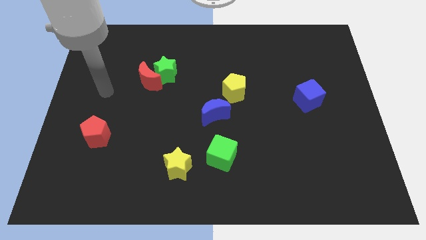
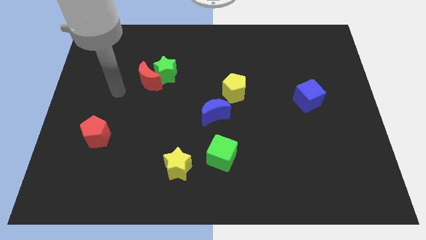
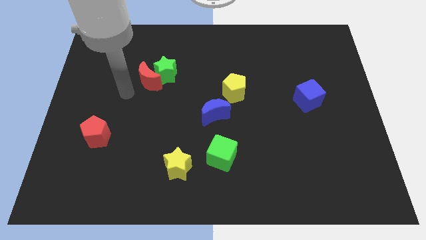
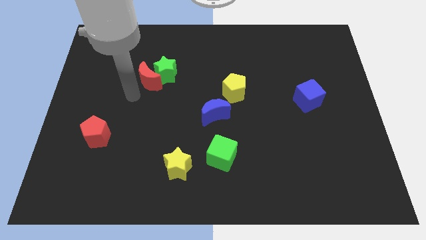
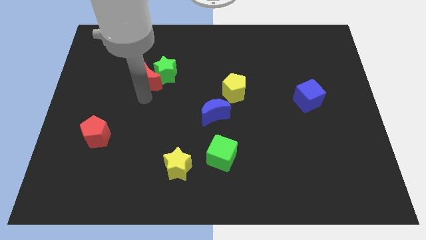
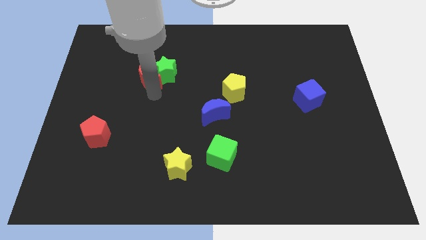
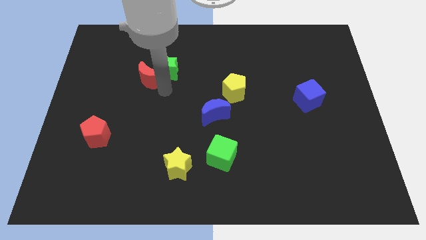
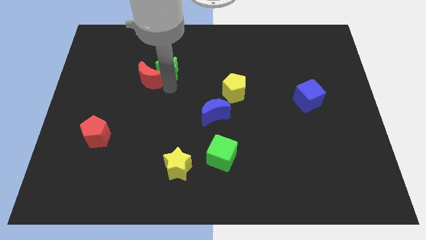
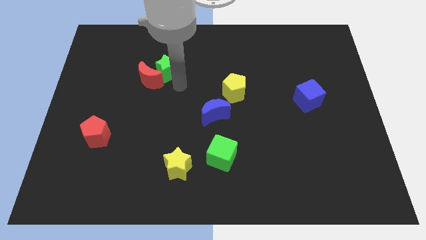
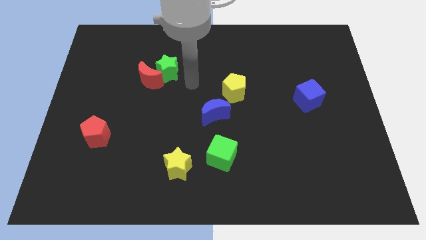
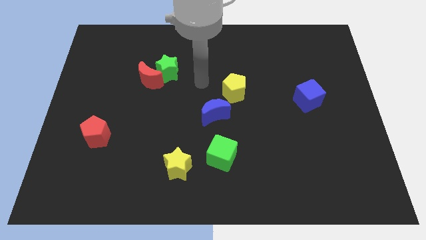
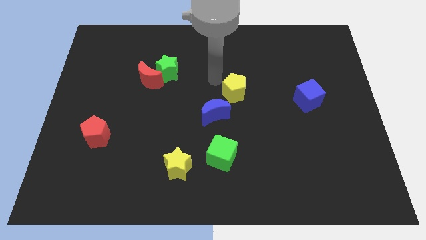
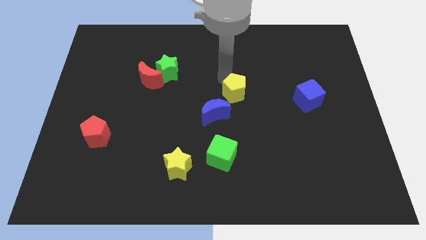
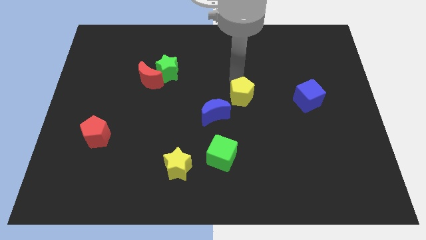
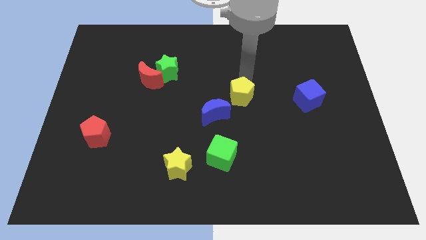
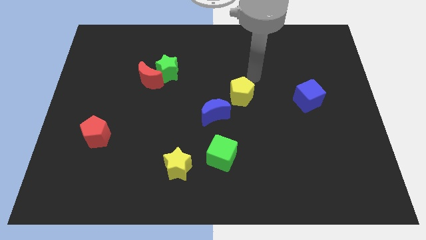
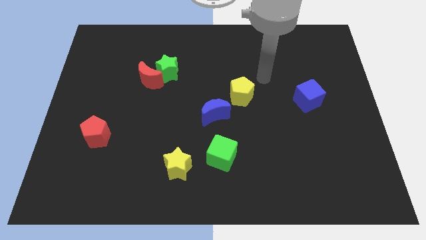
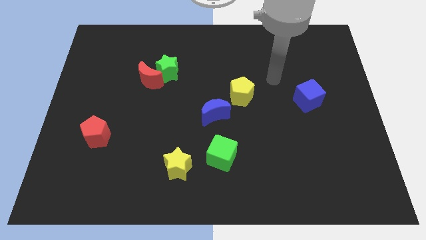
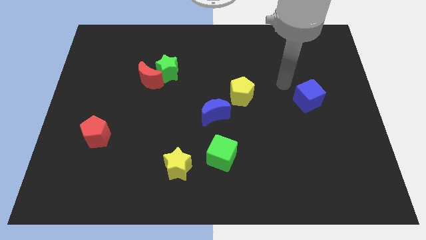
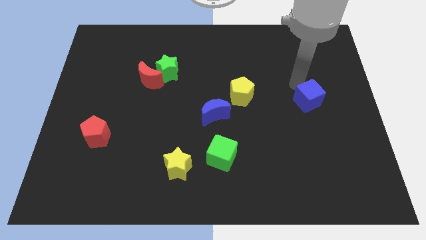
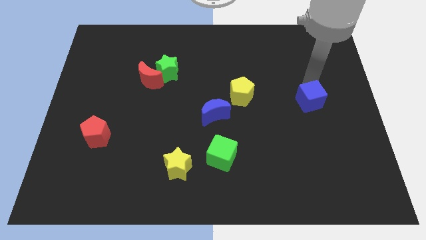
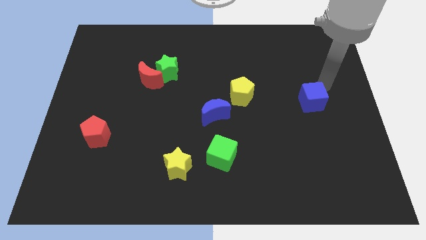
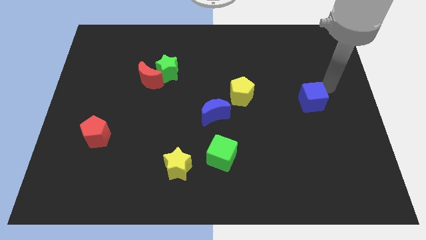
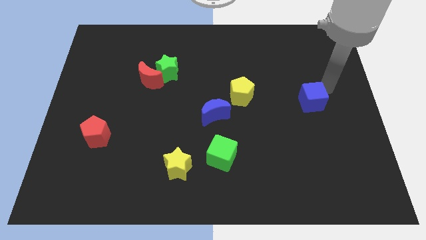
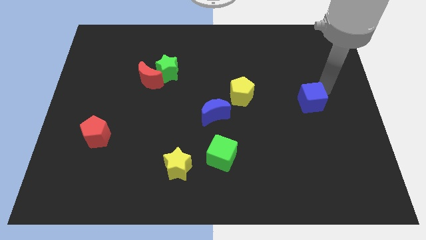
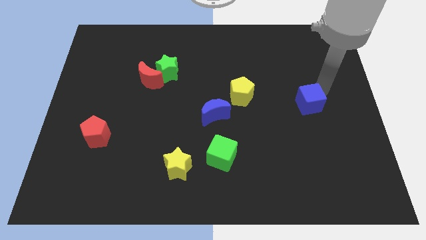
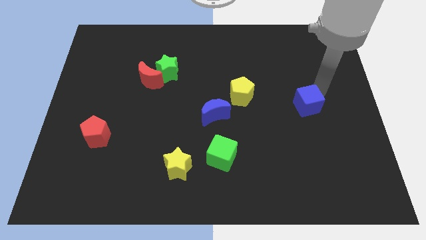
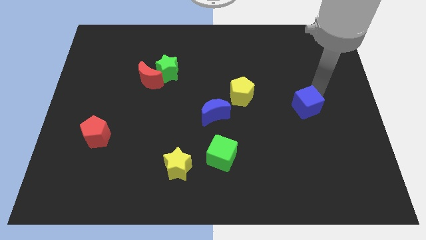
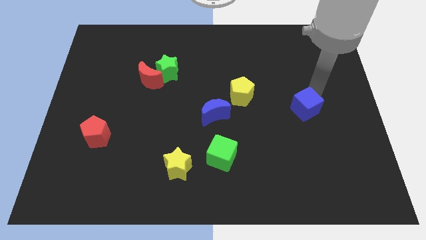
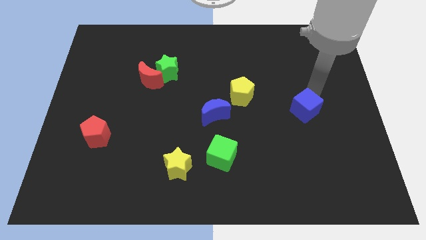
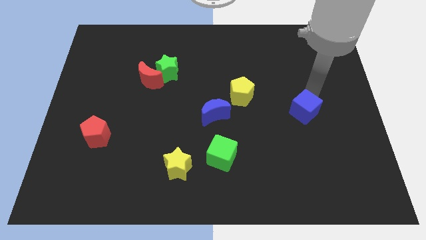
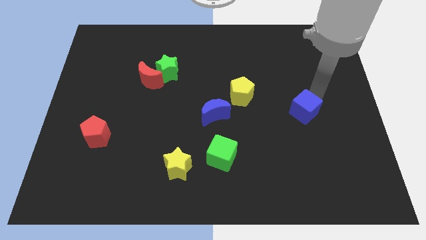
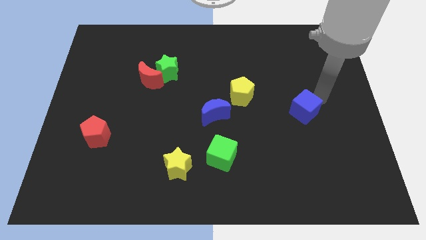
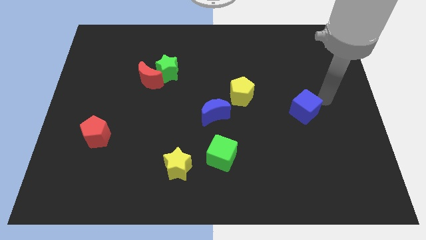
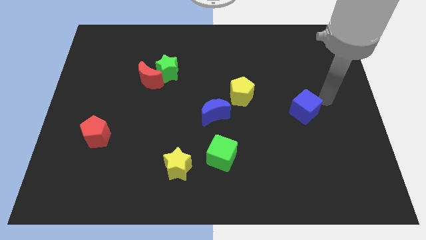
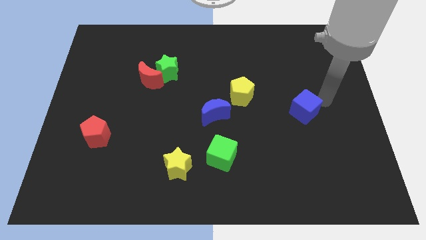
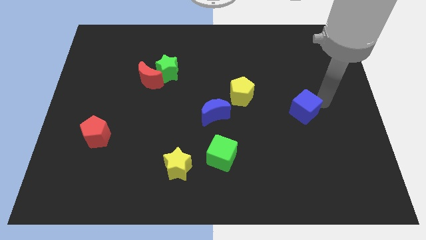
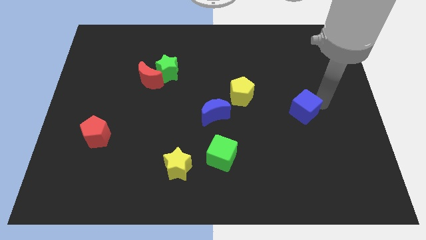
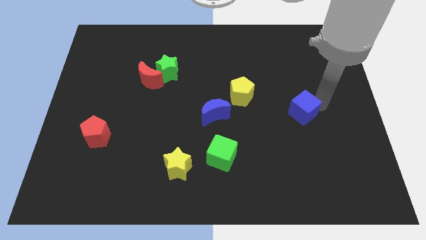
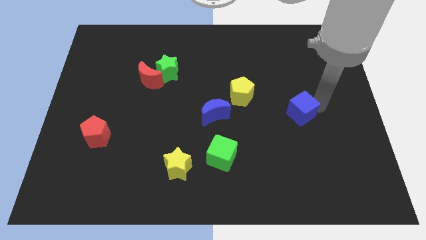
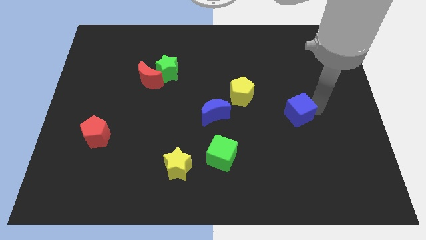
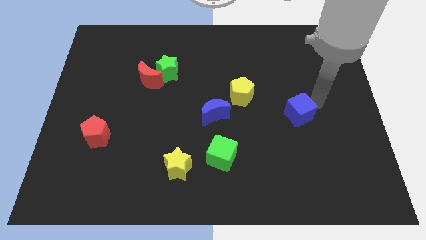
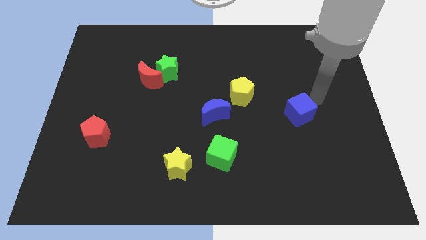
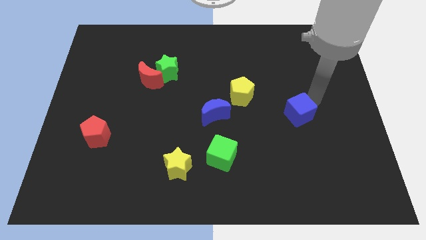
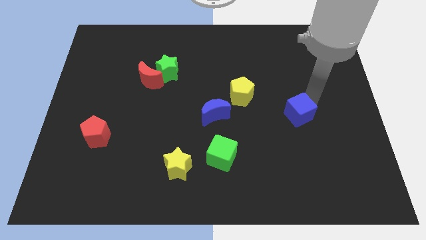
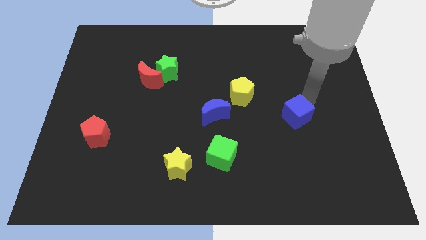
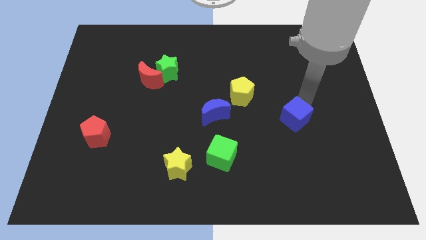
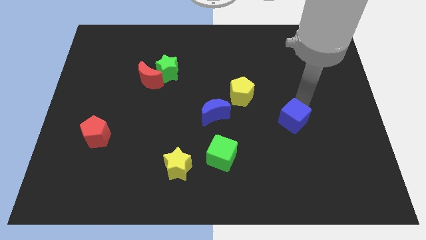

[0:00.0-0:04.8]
slide the blue cube a little diagonally down and to the left

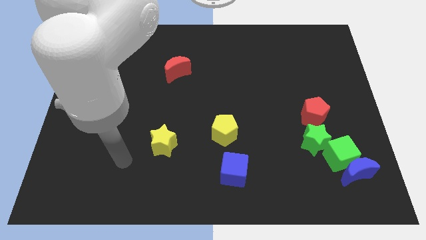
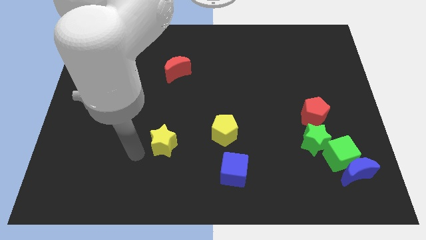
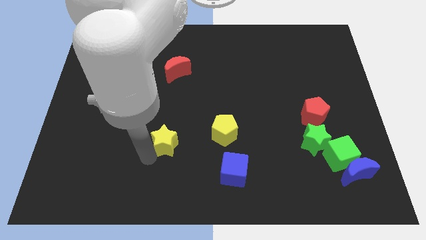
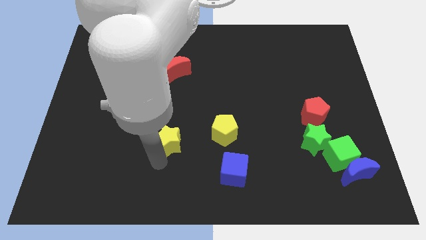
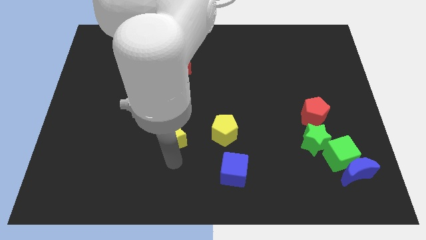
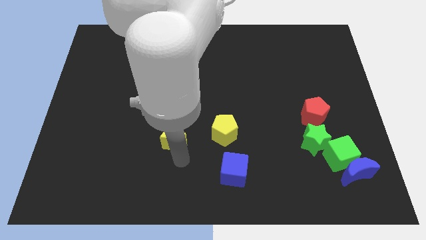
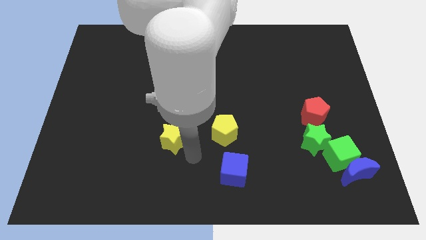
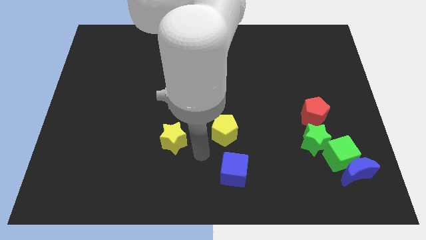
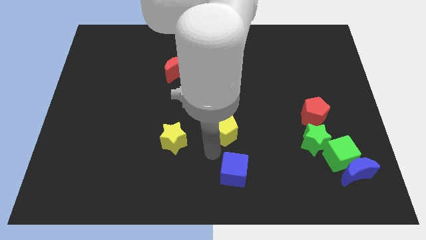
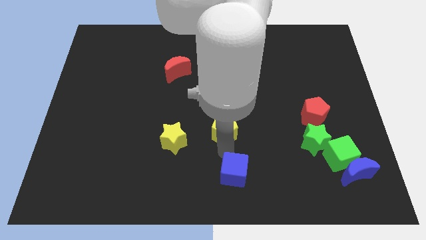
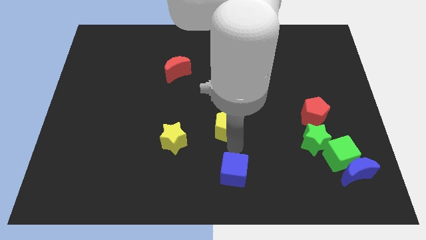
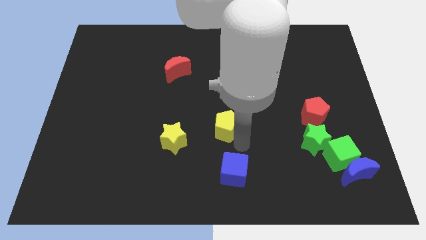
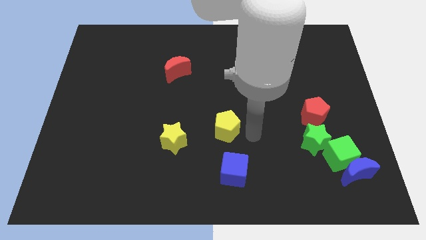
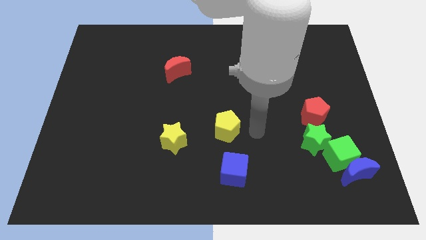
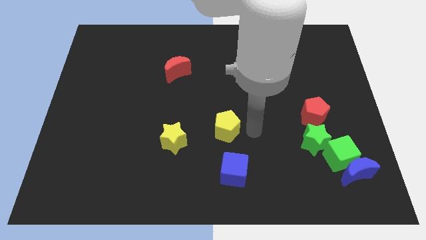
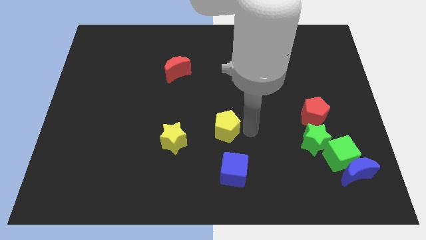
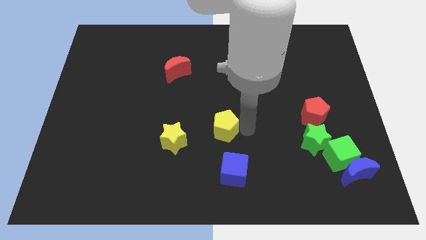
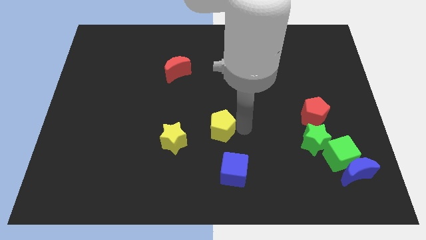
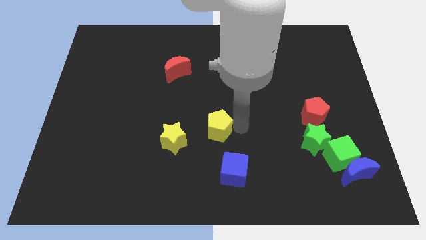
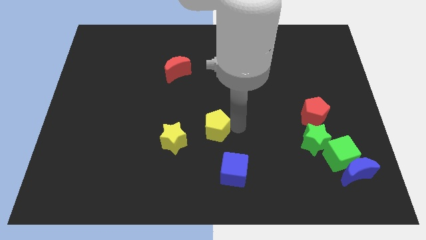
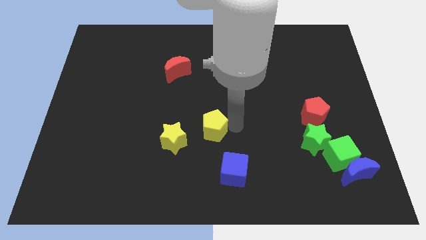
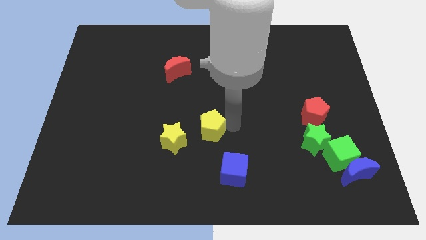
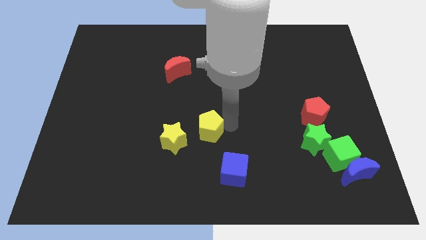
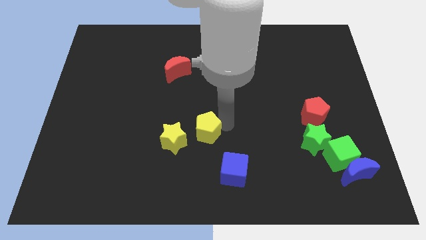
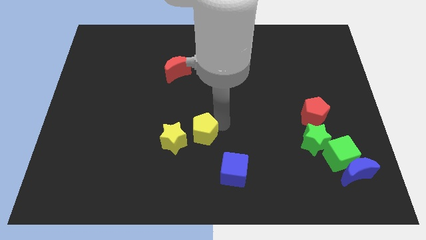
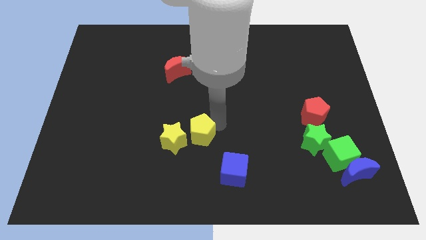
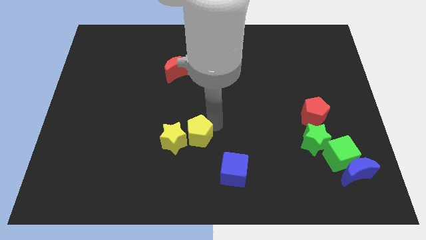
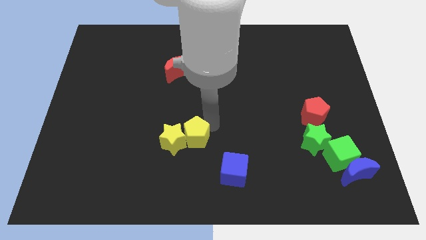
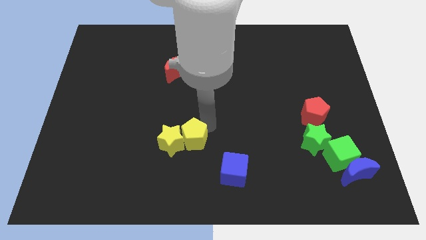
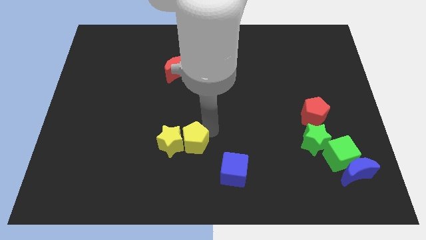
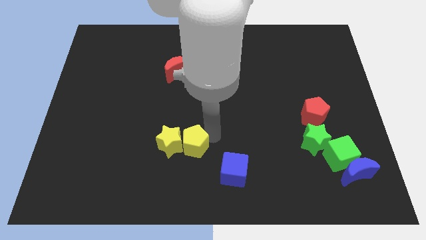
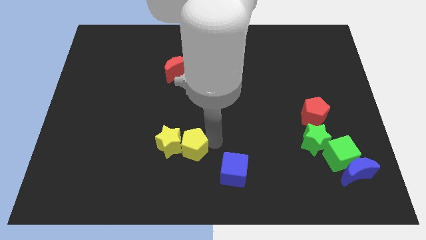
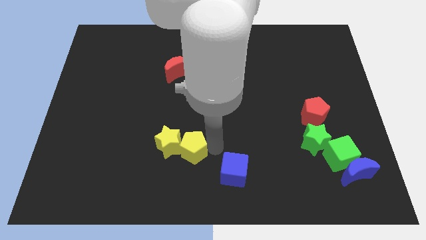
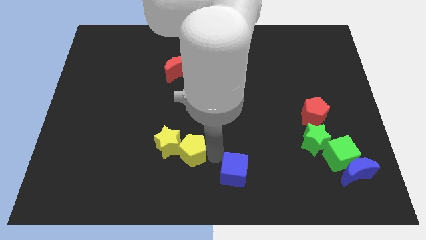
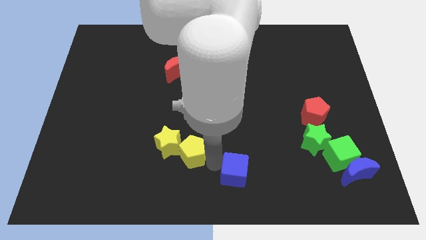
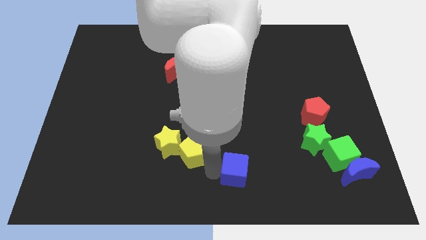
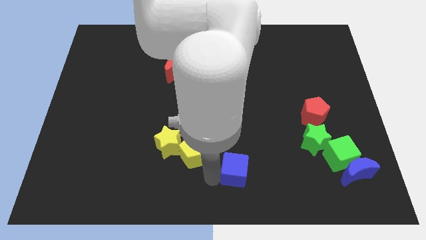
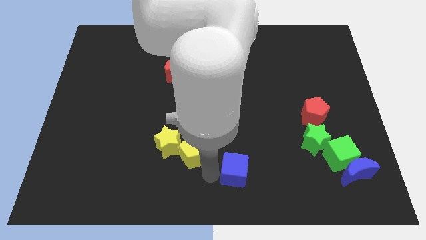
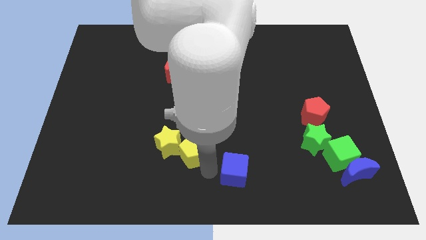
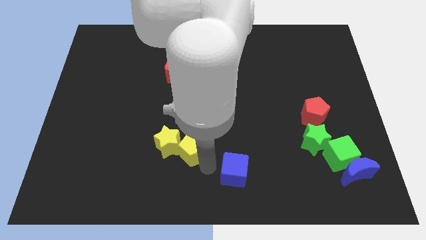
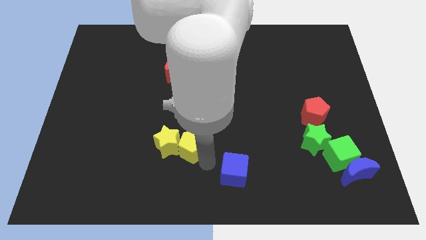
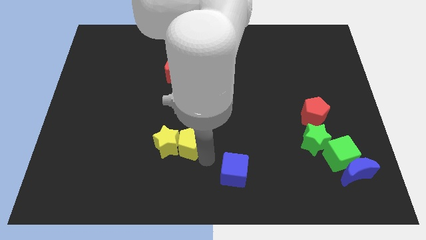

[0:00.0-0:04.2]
move the yellow pentagon a little bit to the left
